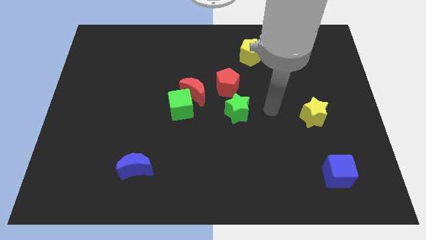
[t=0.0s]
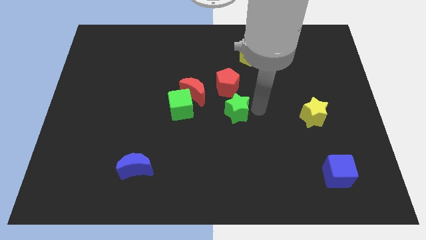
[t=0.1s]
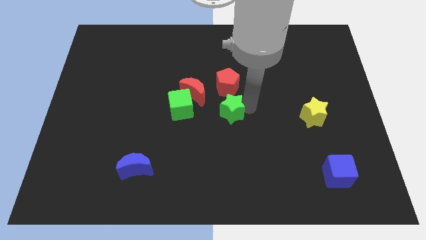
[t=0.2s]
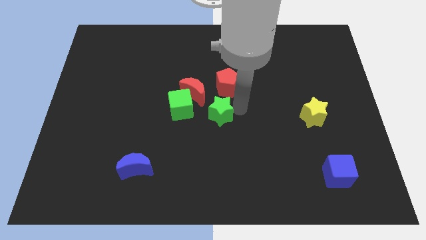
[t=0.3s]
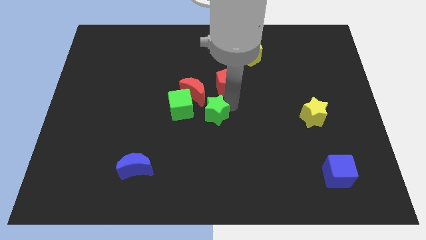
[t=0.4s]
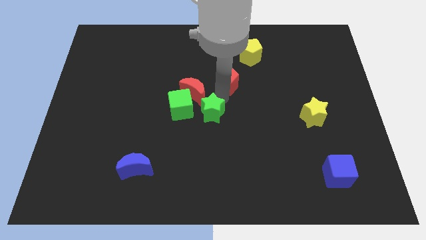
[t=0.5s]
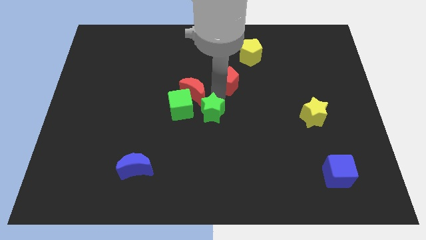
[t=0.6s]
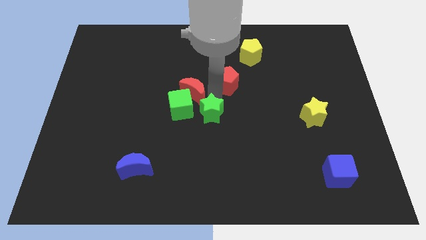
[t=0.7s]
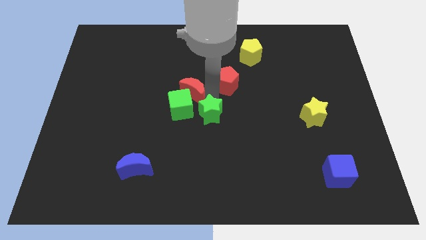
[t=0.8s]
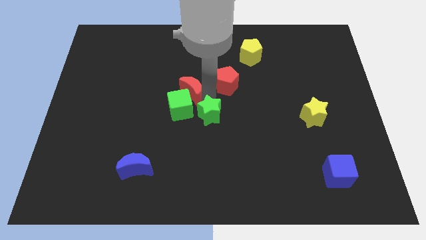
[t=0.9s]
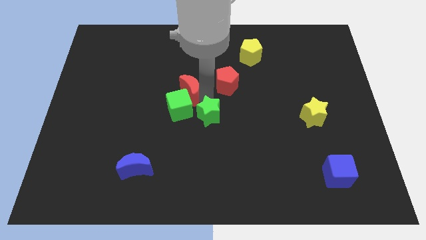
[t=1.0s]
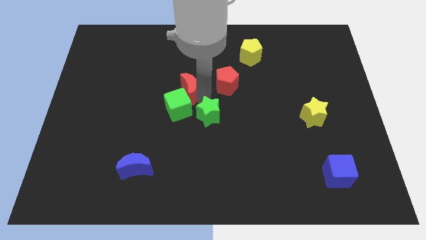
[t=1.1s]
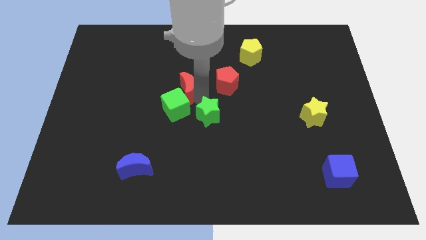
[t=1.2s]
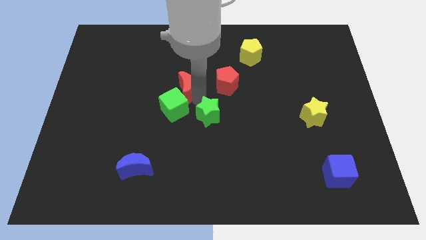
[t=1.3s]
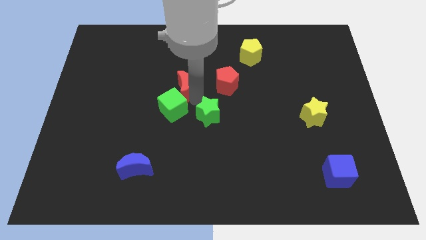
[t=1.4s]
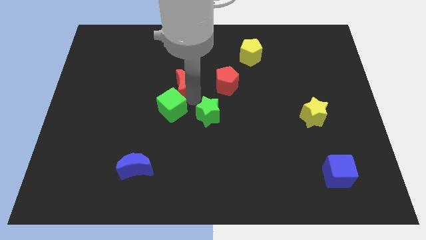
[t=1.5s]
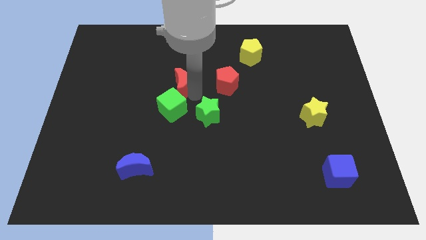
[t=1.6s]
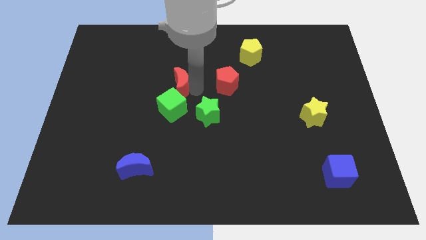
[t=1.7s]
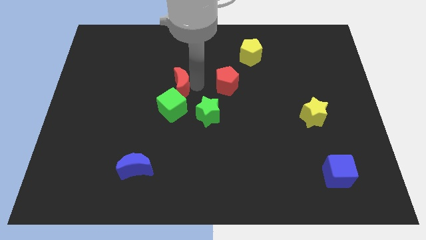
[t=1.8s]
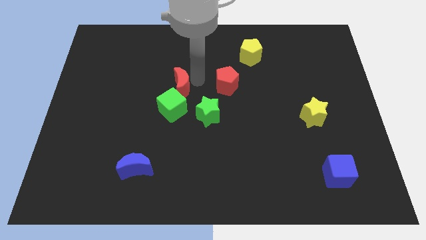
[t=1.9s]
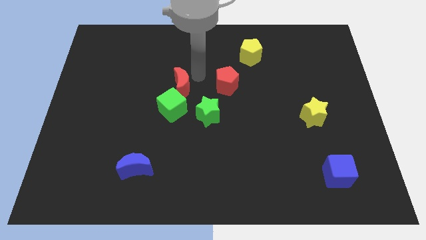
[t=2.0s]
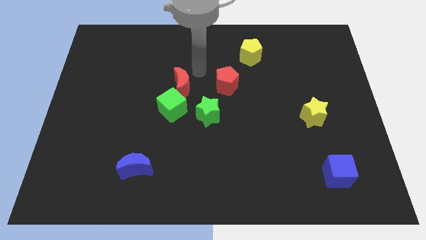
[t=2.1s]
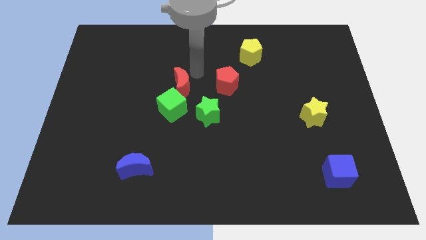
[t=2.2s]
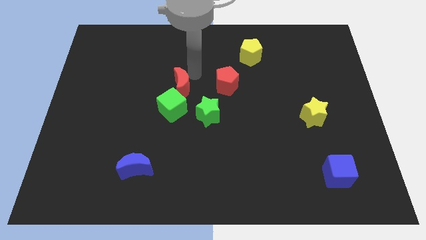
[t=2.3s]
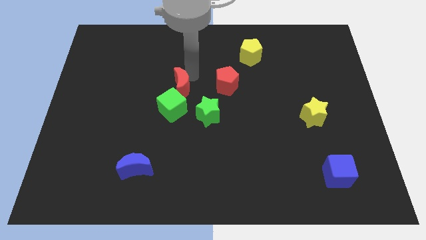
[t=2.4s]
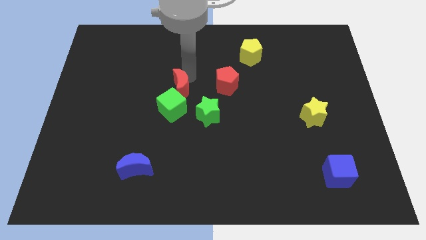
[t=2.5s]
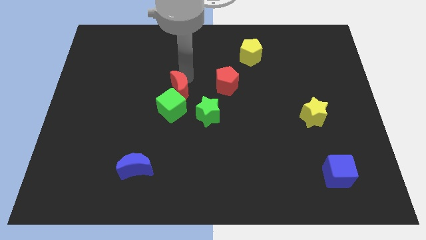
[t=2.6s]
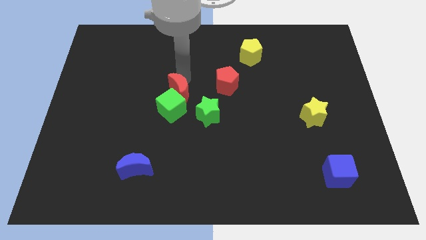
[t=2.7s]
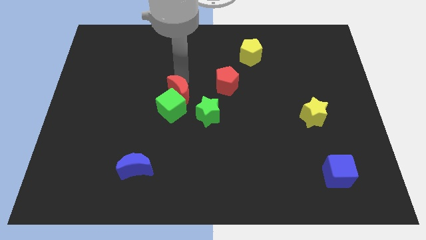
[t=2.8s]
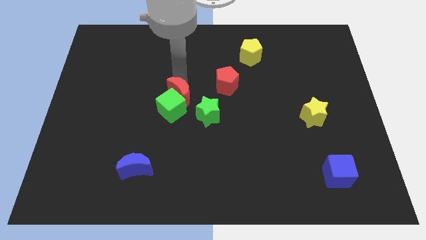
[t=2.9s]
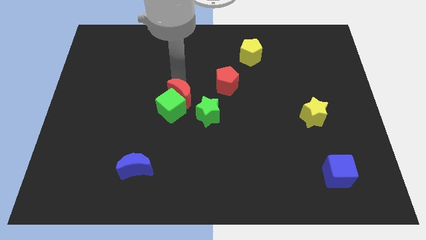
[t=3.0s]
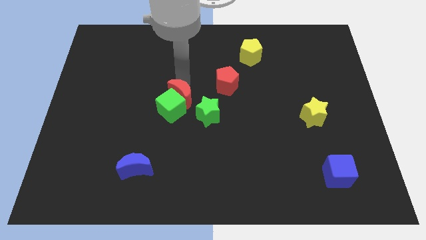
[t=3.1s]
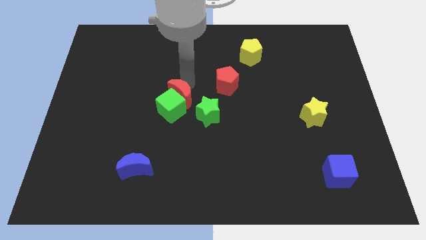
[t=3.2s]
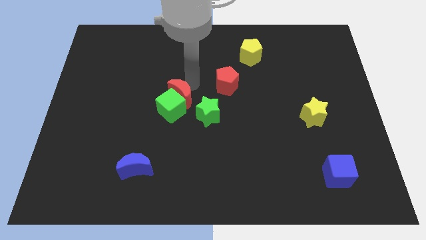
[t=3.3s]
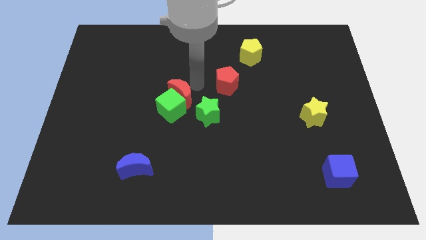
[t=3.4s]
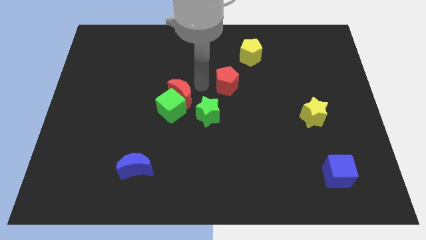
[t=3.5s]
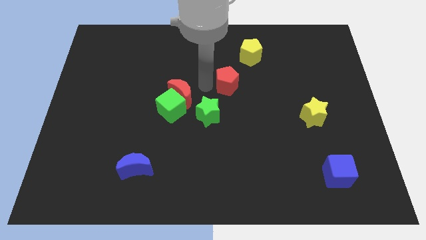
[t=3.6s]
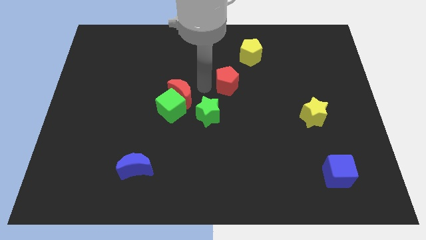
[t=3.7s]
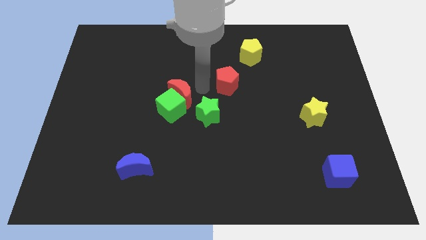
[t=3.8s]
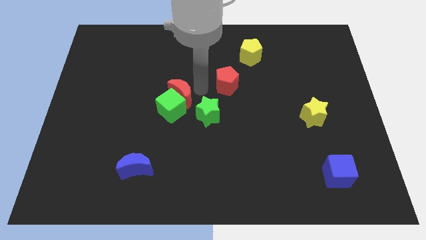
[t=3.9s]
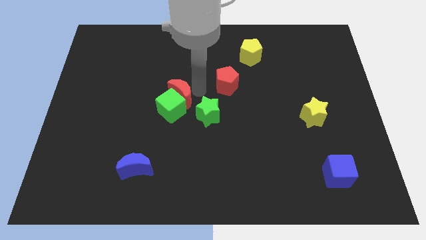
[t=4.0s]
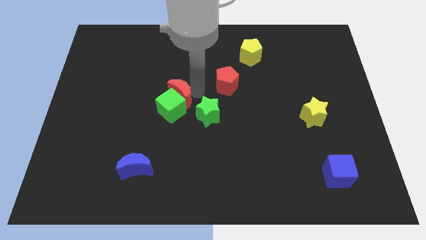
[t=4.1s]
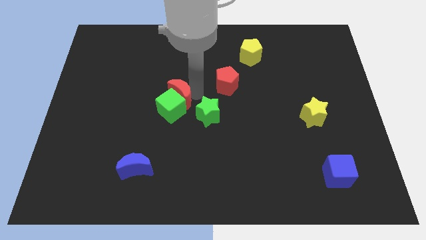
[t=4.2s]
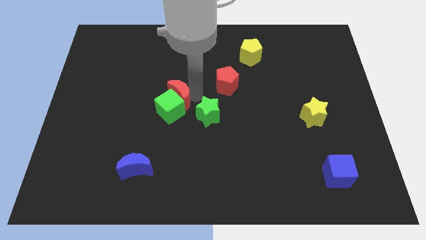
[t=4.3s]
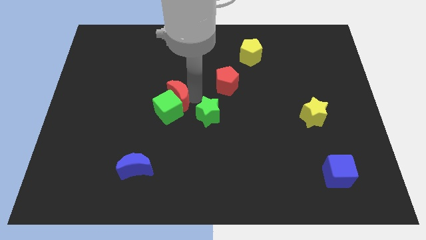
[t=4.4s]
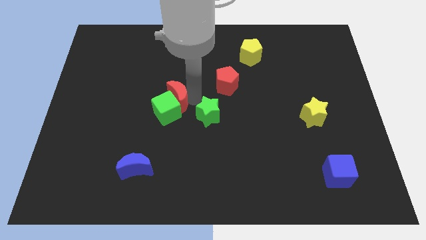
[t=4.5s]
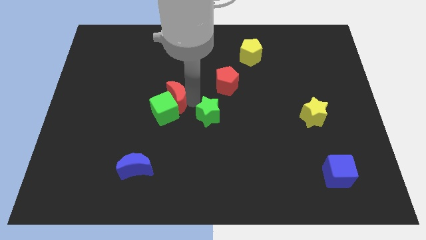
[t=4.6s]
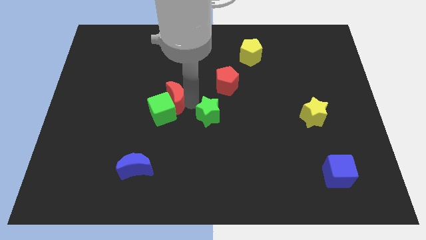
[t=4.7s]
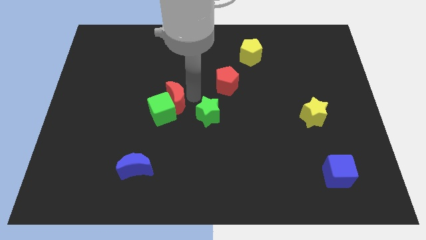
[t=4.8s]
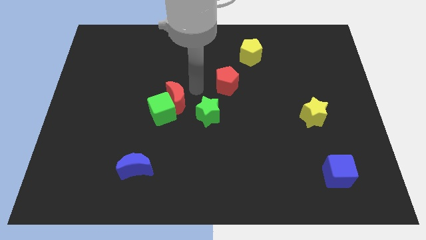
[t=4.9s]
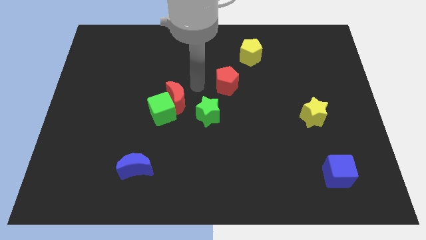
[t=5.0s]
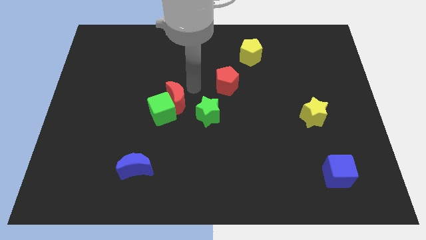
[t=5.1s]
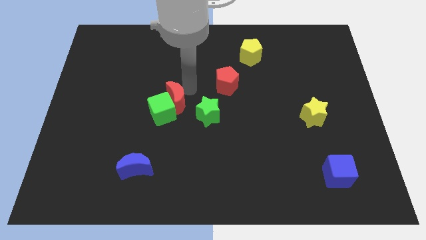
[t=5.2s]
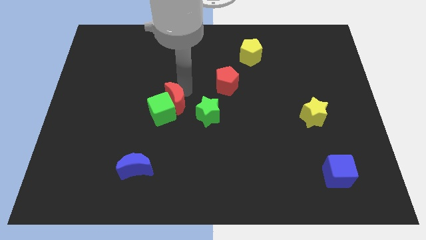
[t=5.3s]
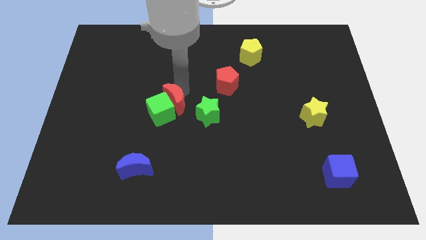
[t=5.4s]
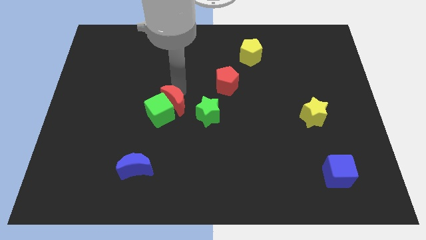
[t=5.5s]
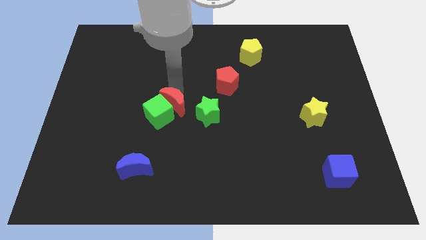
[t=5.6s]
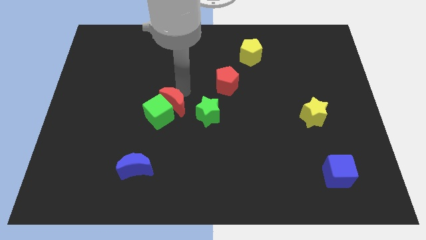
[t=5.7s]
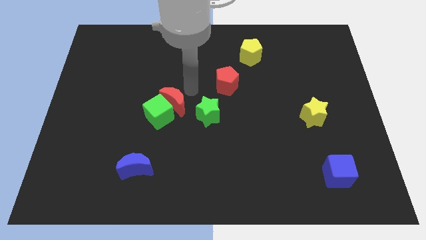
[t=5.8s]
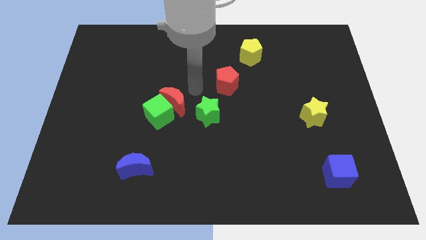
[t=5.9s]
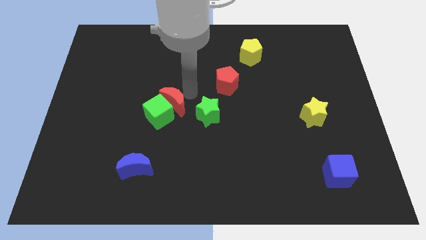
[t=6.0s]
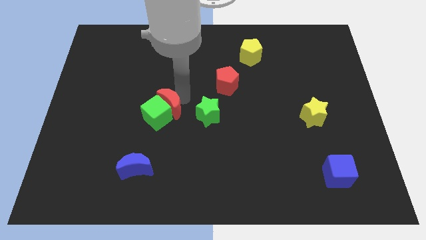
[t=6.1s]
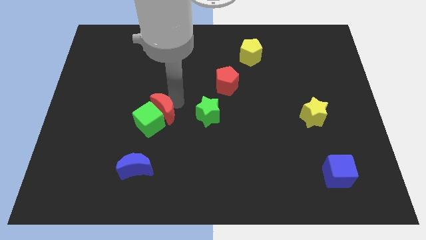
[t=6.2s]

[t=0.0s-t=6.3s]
slightly move the red moon down and left diagonally

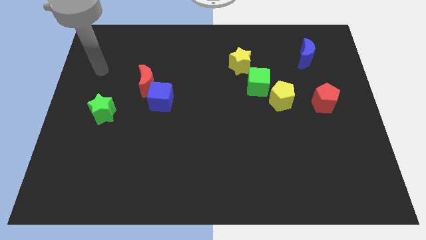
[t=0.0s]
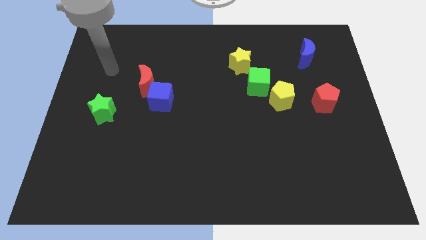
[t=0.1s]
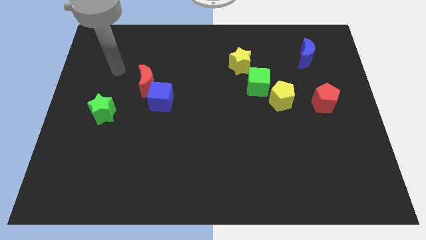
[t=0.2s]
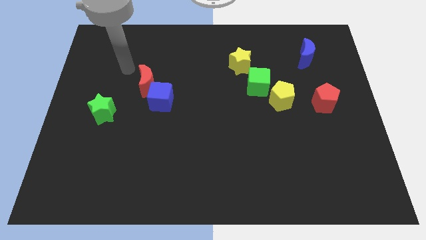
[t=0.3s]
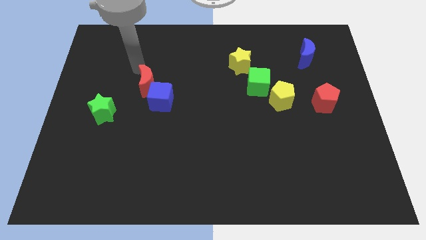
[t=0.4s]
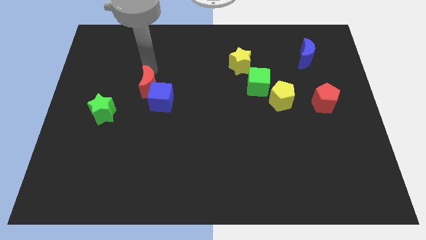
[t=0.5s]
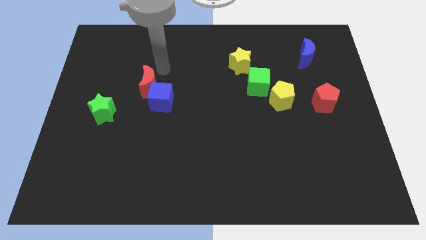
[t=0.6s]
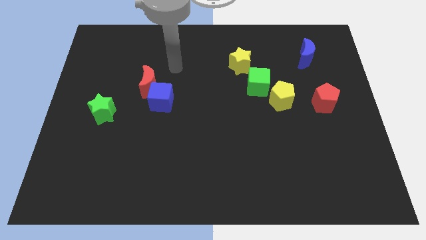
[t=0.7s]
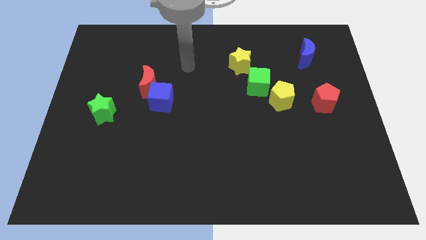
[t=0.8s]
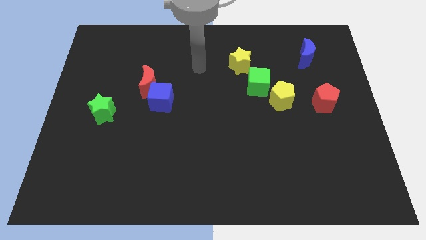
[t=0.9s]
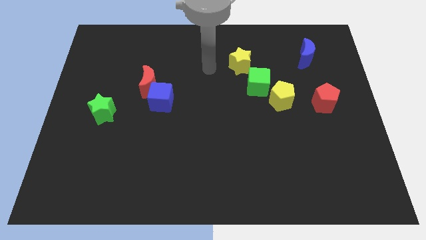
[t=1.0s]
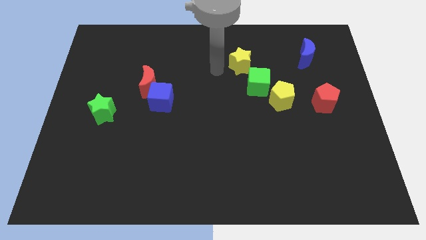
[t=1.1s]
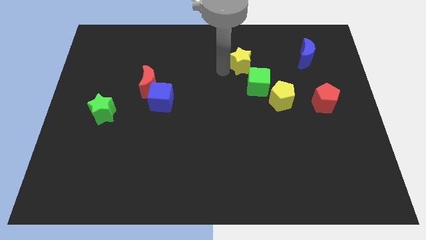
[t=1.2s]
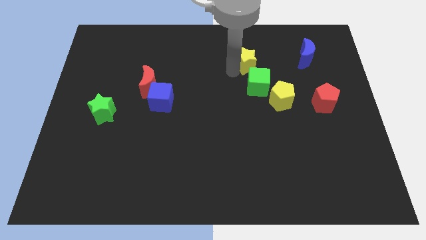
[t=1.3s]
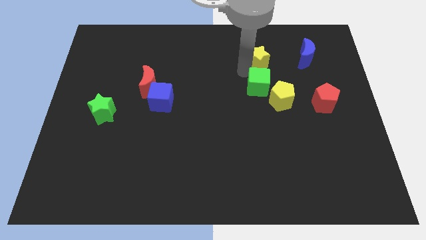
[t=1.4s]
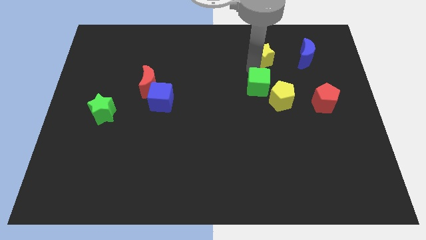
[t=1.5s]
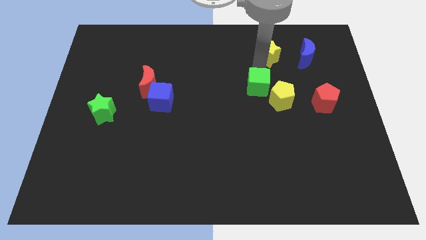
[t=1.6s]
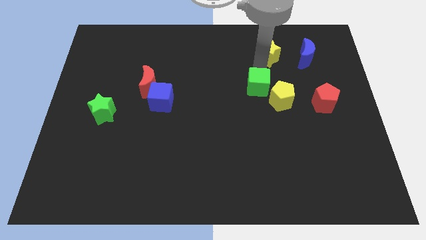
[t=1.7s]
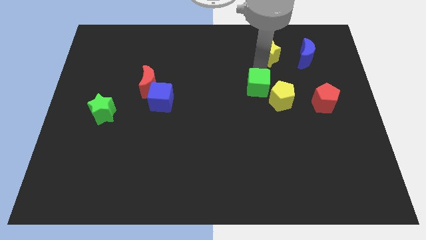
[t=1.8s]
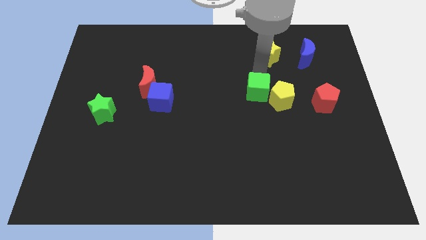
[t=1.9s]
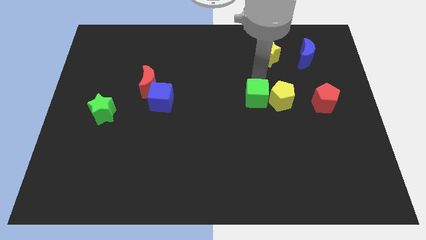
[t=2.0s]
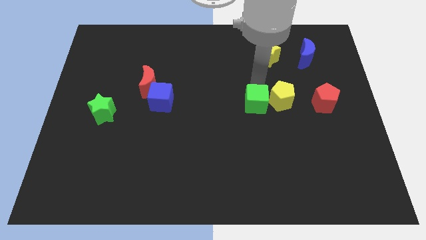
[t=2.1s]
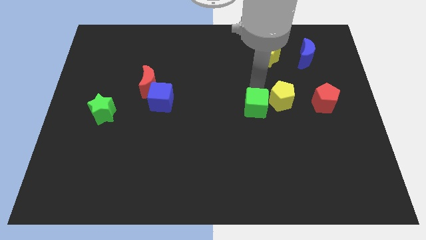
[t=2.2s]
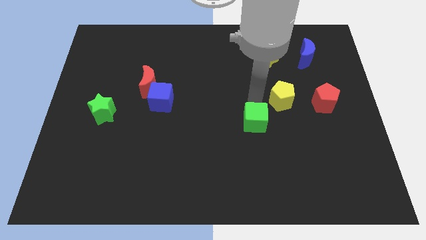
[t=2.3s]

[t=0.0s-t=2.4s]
slide the green cube downwards slightly
